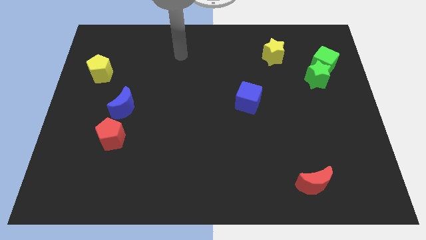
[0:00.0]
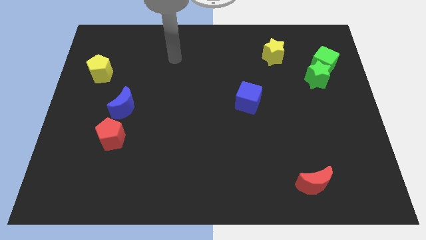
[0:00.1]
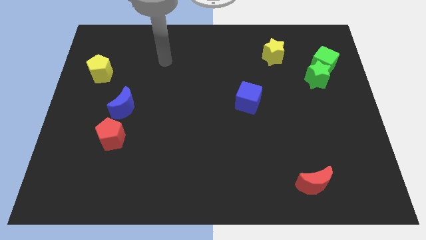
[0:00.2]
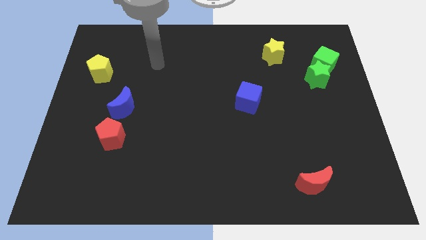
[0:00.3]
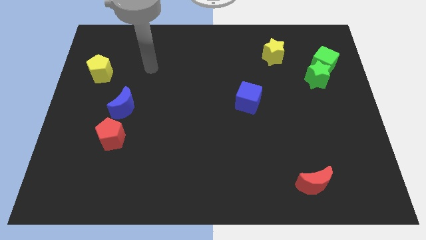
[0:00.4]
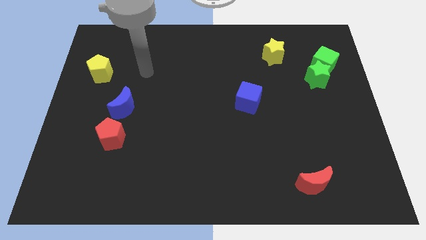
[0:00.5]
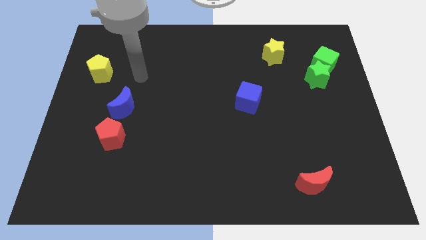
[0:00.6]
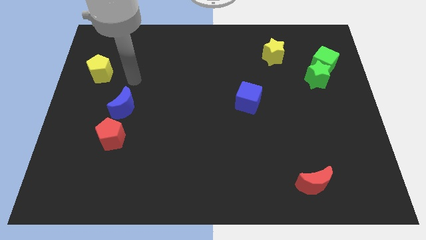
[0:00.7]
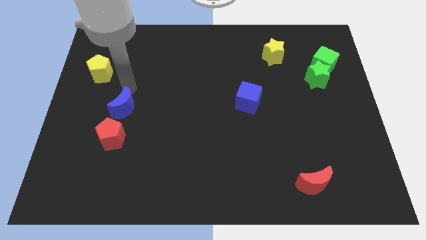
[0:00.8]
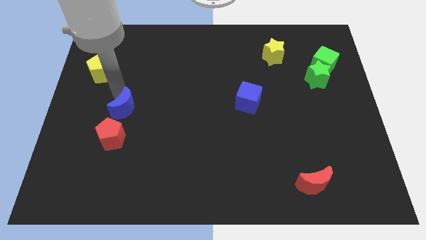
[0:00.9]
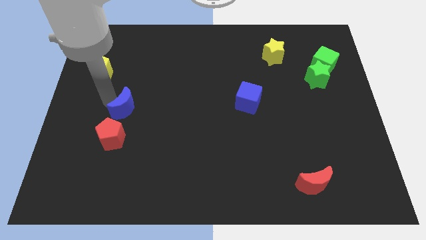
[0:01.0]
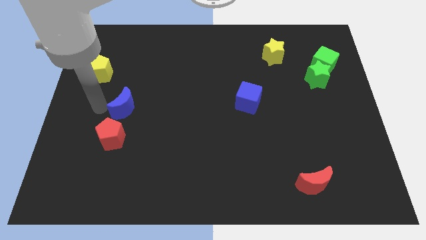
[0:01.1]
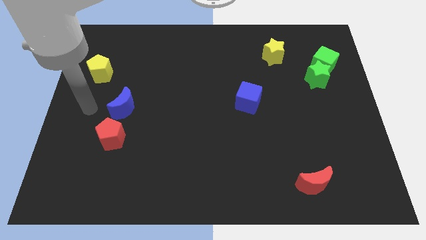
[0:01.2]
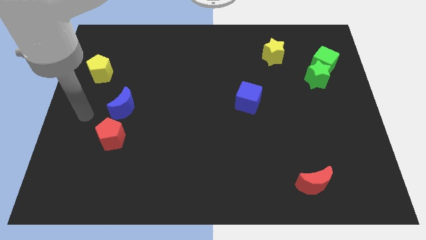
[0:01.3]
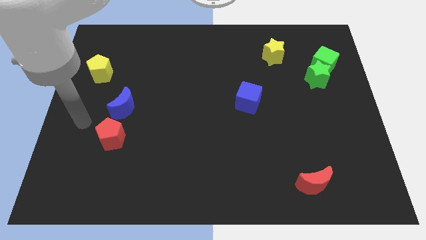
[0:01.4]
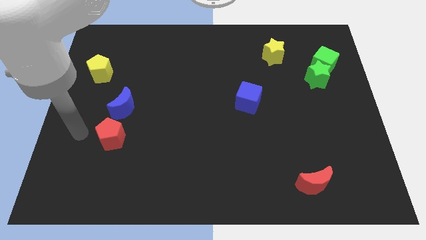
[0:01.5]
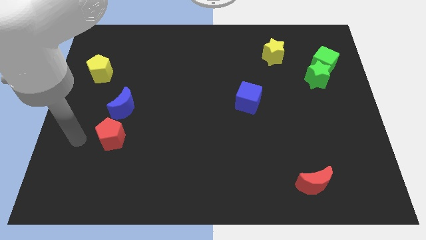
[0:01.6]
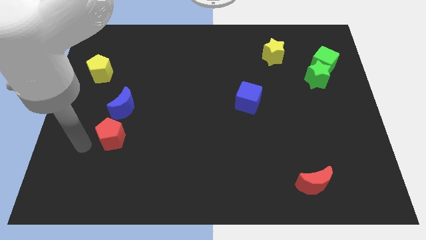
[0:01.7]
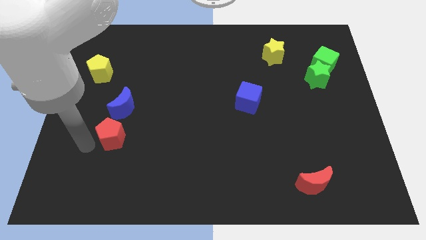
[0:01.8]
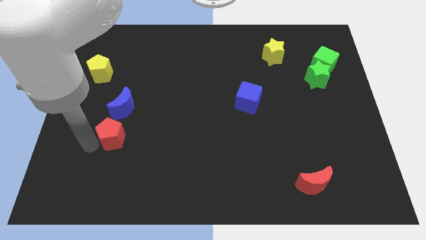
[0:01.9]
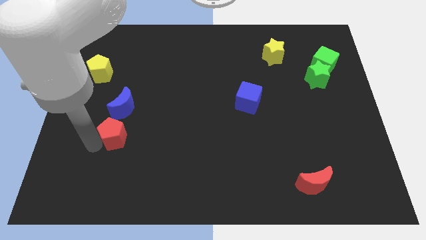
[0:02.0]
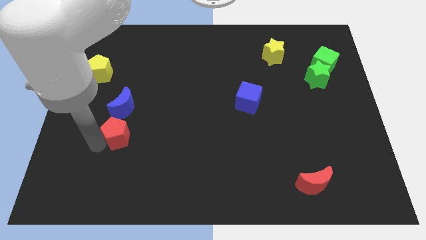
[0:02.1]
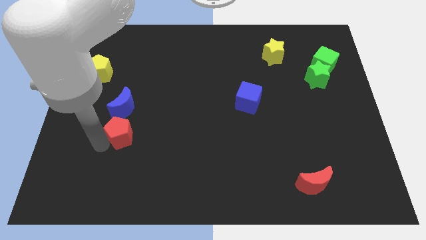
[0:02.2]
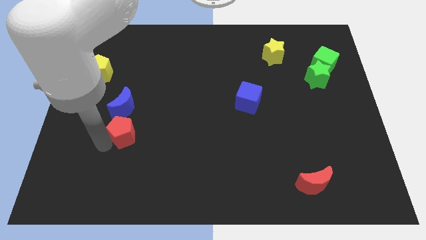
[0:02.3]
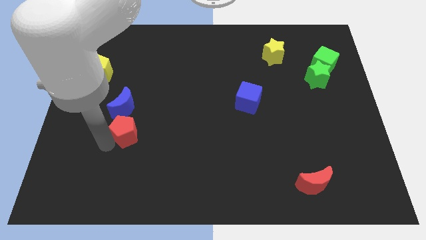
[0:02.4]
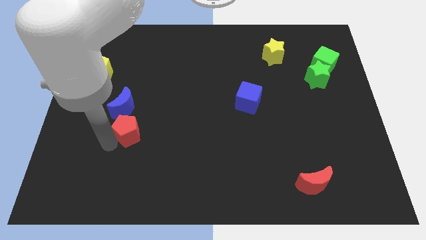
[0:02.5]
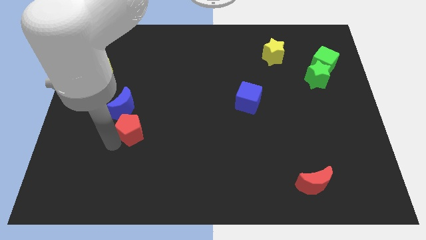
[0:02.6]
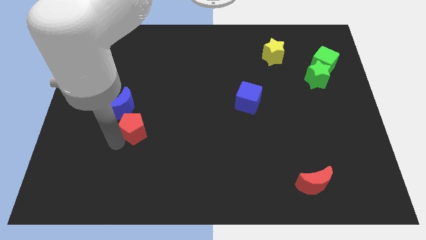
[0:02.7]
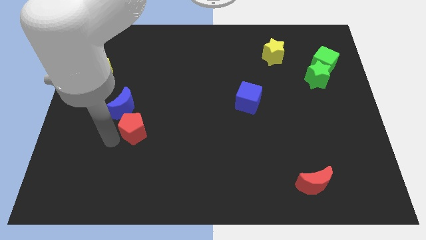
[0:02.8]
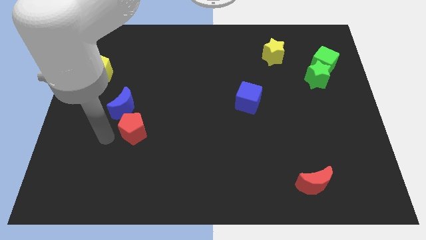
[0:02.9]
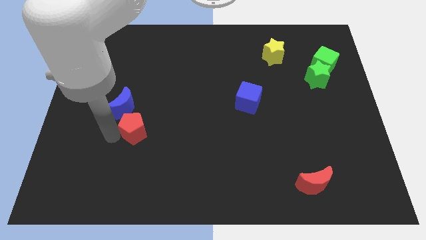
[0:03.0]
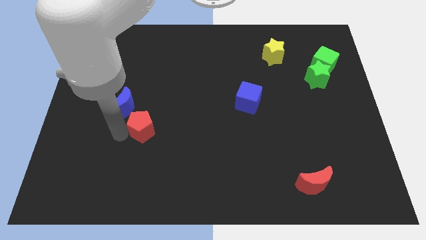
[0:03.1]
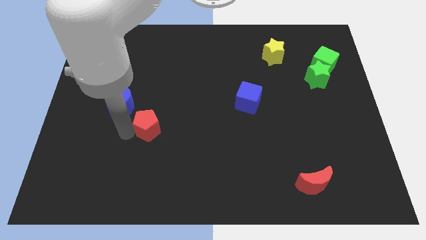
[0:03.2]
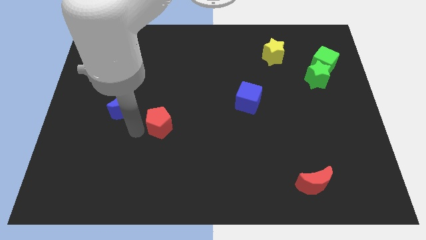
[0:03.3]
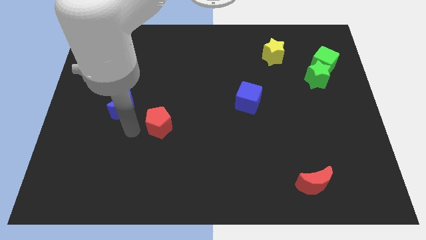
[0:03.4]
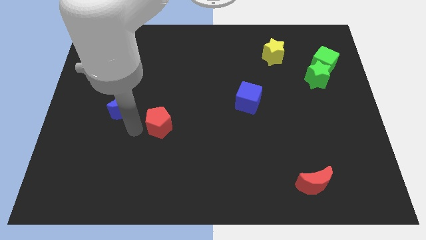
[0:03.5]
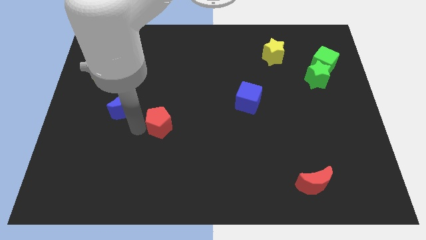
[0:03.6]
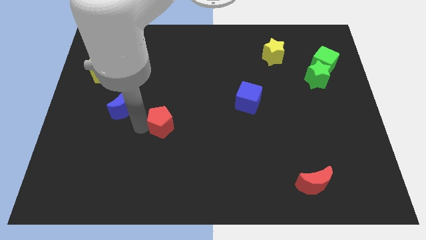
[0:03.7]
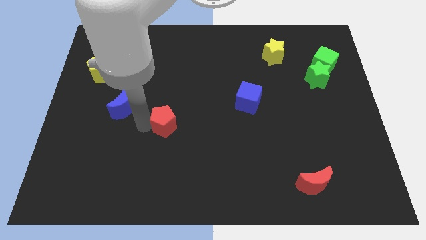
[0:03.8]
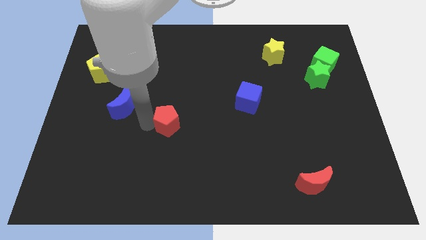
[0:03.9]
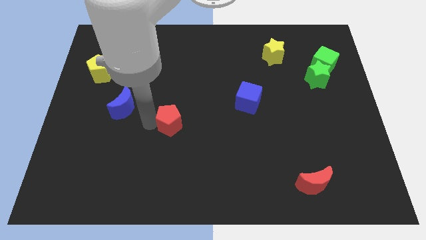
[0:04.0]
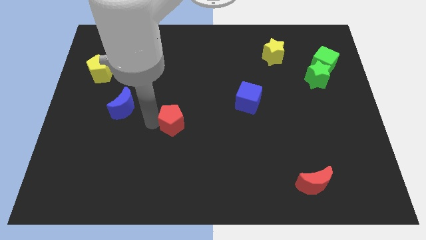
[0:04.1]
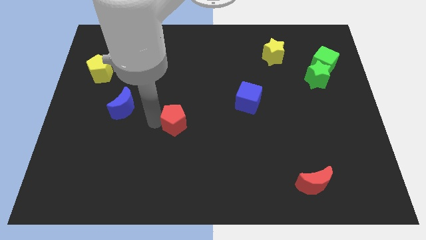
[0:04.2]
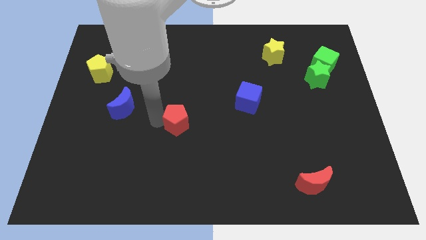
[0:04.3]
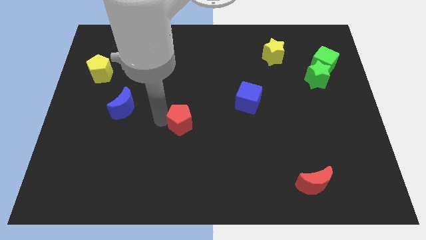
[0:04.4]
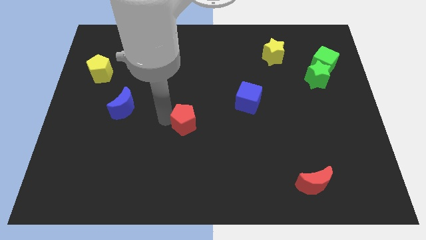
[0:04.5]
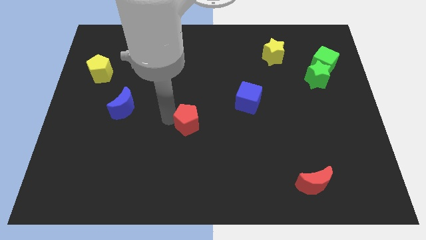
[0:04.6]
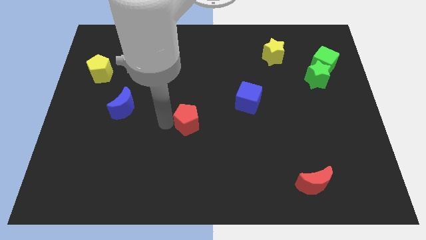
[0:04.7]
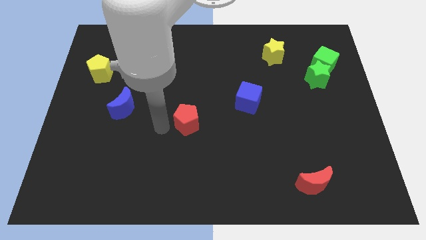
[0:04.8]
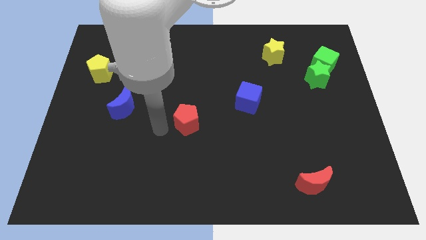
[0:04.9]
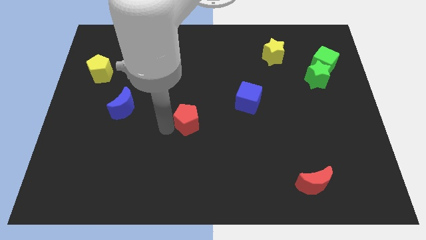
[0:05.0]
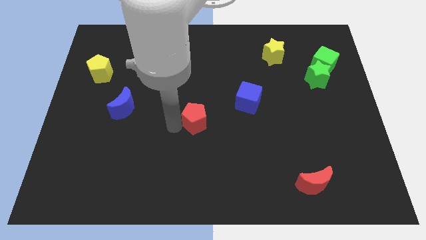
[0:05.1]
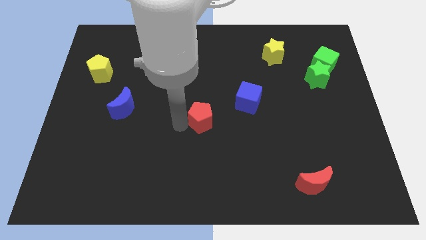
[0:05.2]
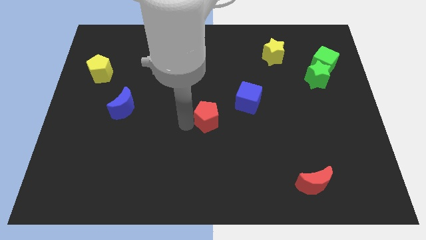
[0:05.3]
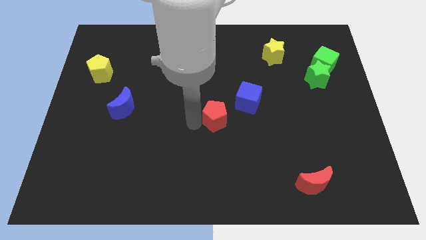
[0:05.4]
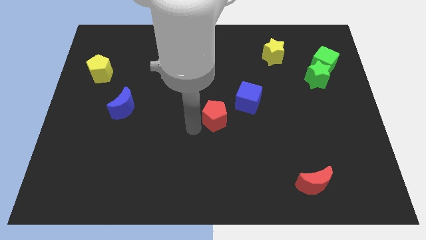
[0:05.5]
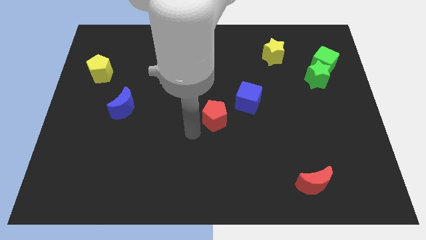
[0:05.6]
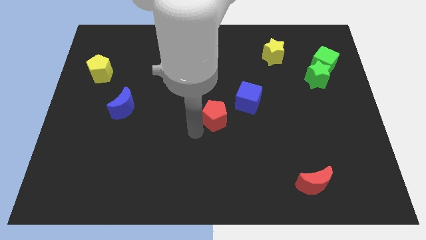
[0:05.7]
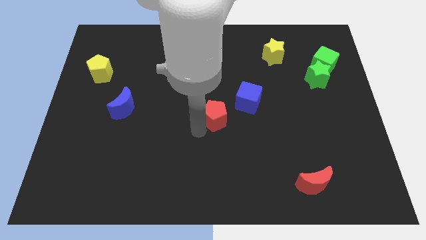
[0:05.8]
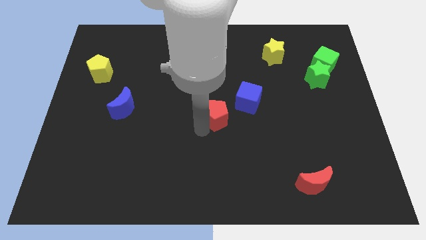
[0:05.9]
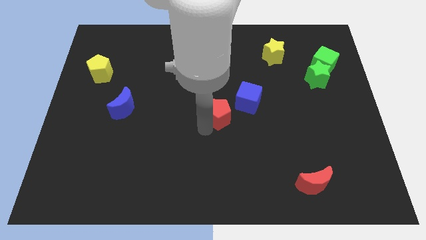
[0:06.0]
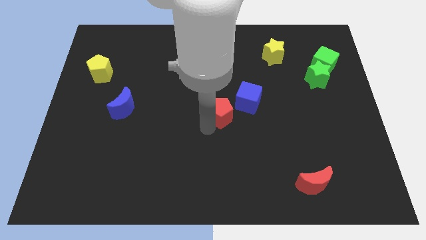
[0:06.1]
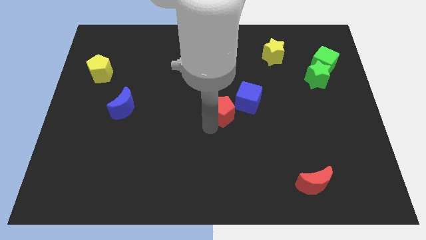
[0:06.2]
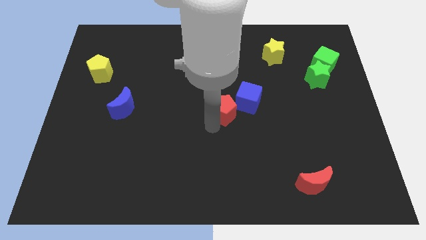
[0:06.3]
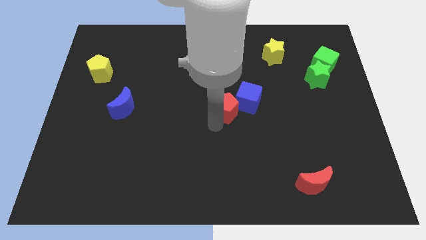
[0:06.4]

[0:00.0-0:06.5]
put the red pentagon towards the blue cube
